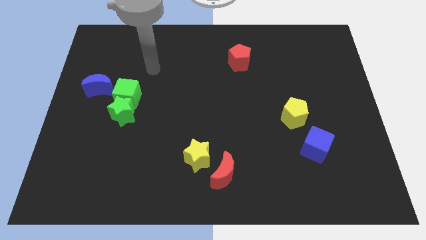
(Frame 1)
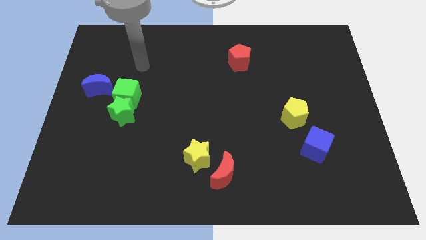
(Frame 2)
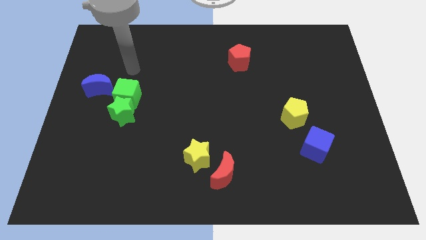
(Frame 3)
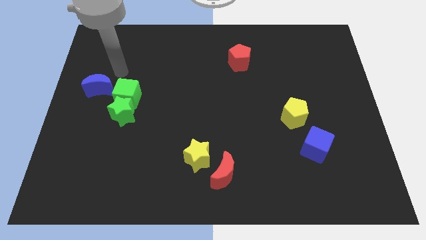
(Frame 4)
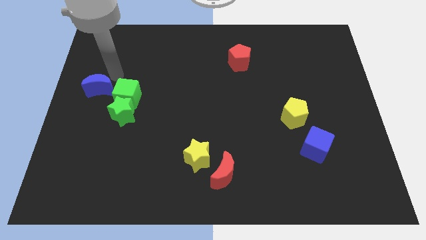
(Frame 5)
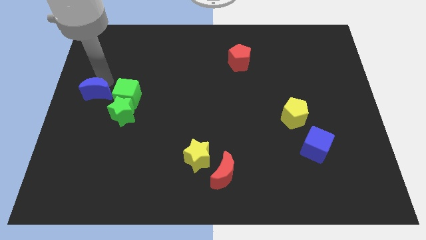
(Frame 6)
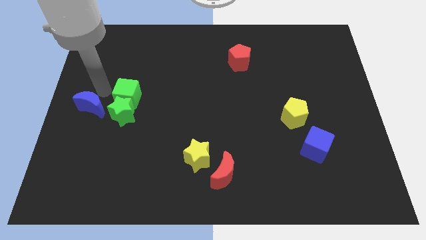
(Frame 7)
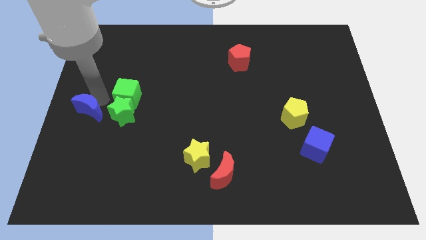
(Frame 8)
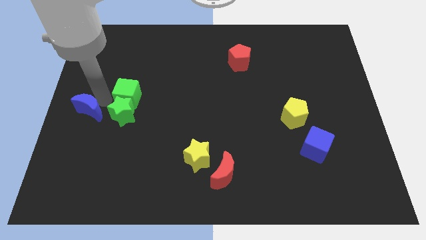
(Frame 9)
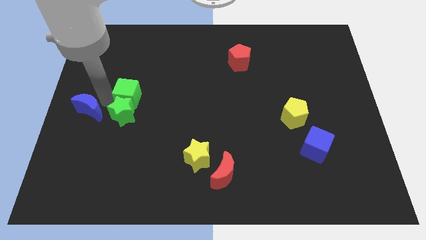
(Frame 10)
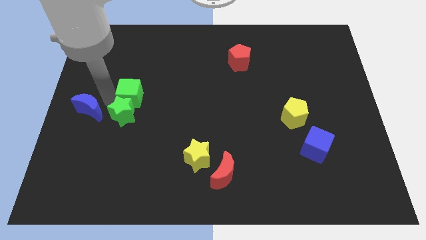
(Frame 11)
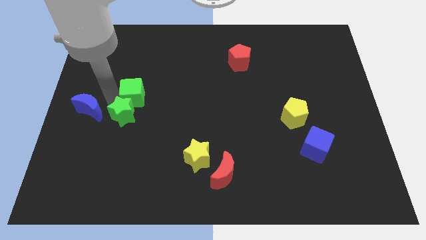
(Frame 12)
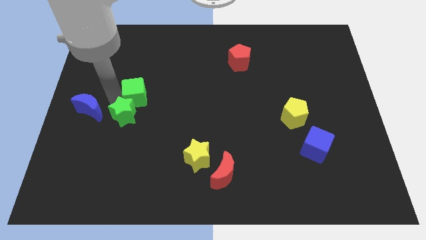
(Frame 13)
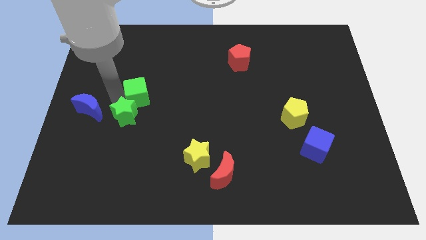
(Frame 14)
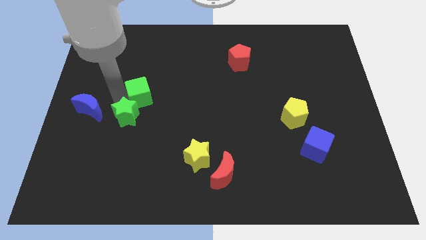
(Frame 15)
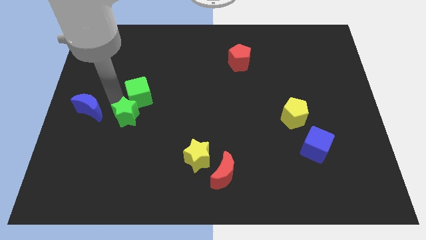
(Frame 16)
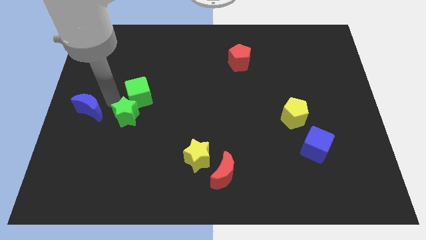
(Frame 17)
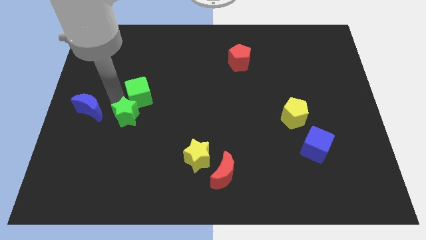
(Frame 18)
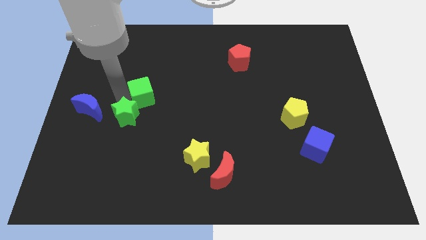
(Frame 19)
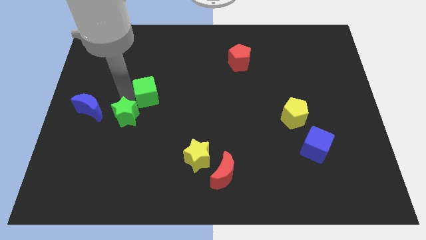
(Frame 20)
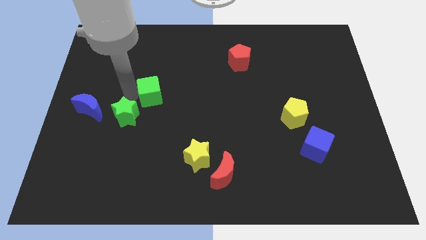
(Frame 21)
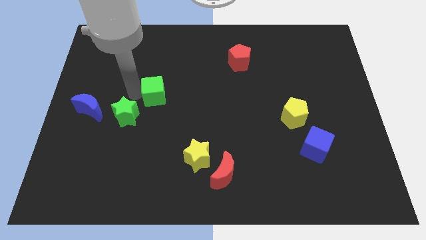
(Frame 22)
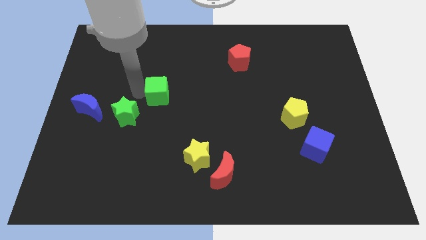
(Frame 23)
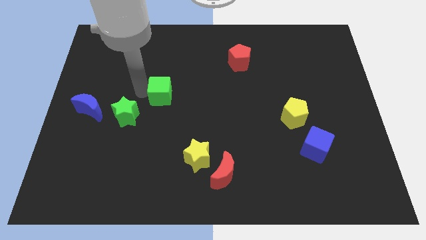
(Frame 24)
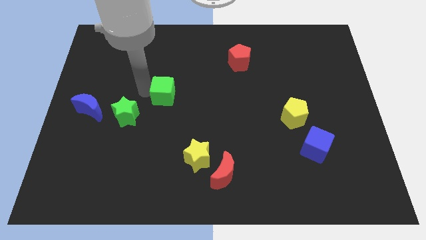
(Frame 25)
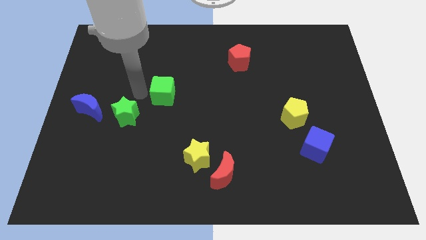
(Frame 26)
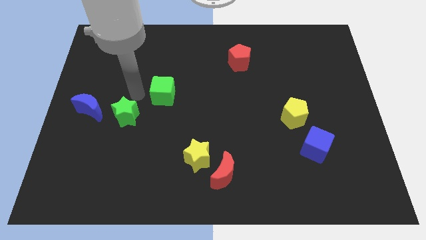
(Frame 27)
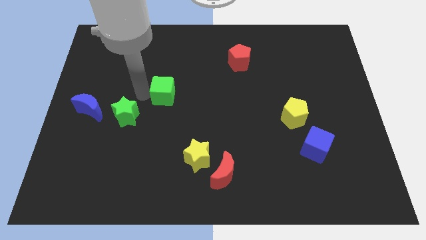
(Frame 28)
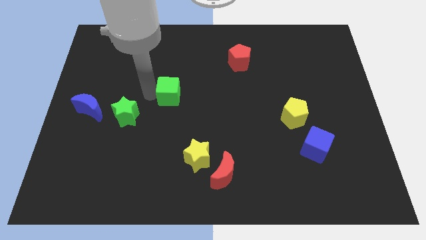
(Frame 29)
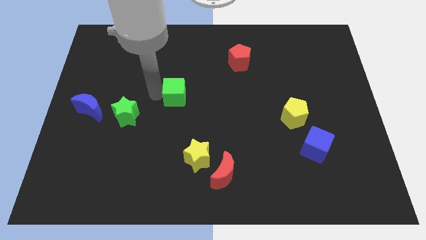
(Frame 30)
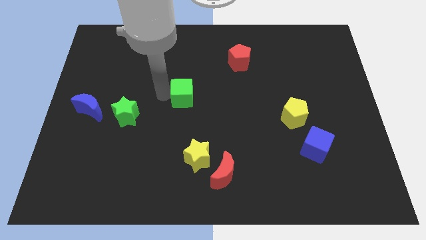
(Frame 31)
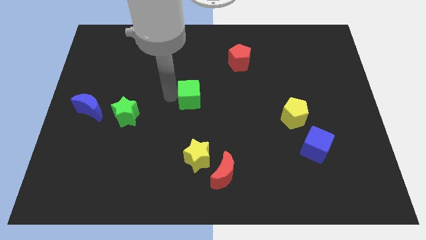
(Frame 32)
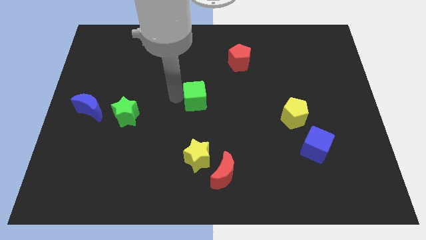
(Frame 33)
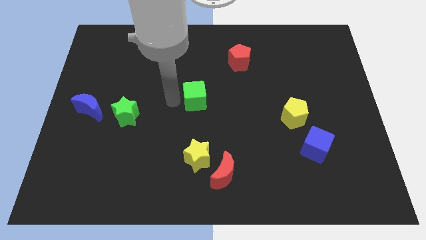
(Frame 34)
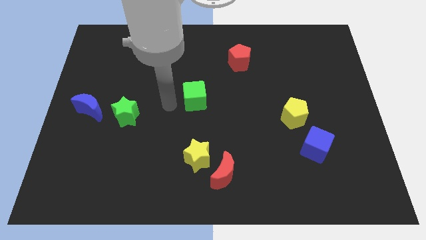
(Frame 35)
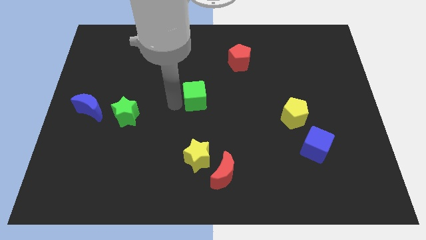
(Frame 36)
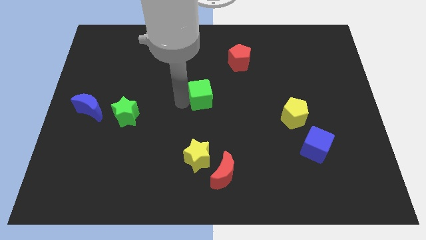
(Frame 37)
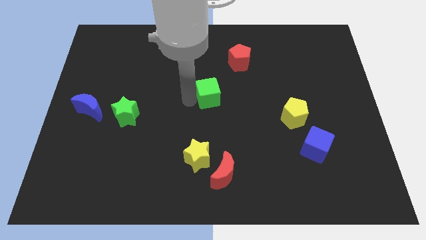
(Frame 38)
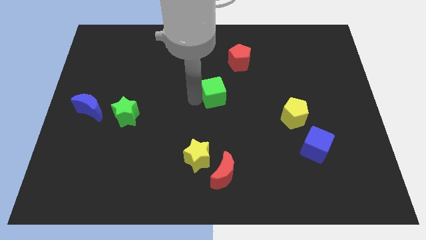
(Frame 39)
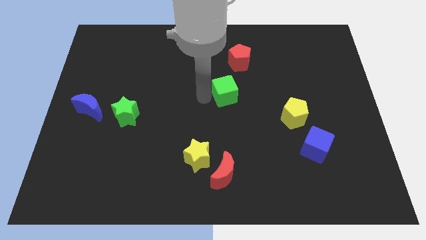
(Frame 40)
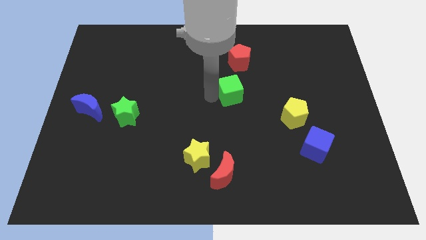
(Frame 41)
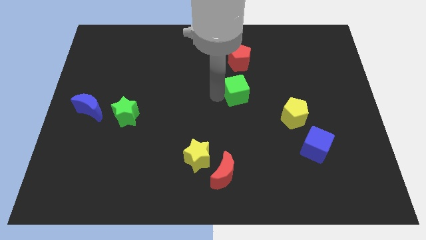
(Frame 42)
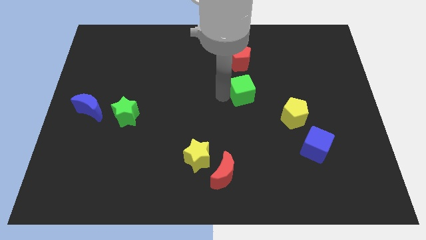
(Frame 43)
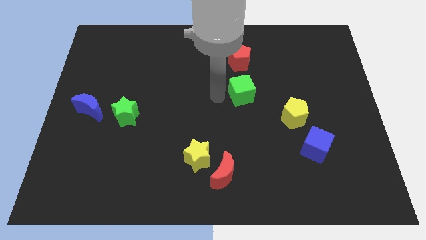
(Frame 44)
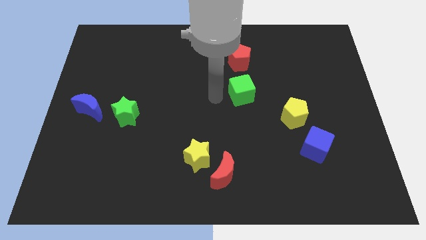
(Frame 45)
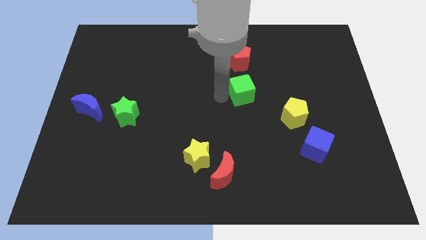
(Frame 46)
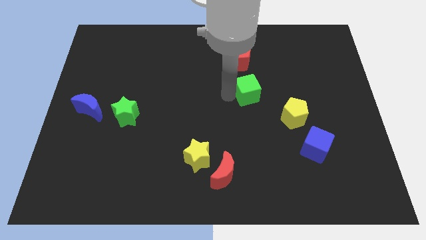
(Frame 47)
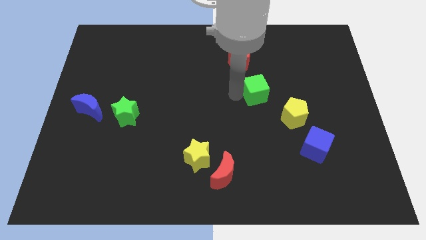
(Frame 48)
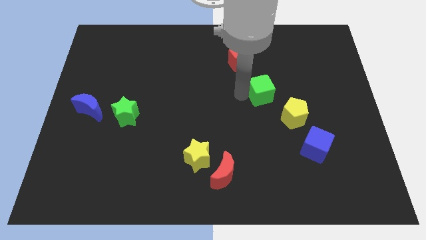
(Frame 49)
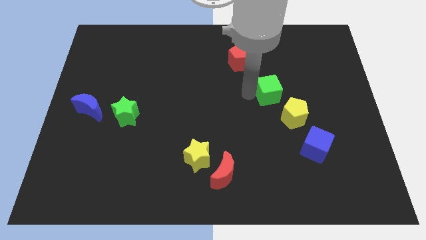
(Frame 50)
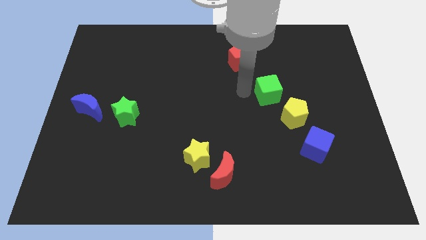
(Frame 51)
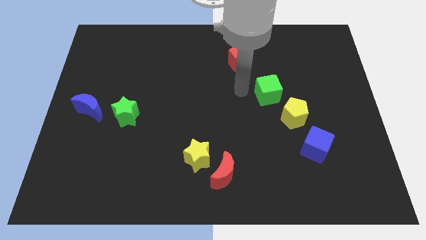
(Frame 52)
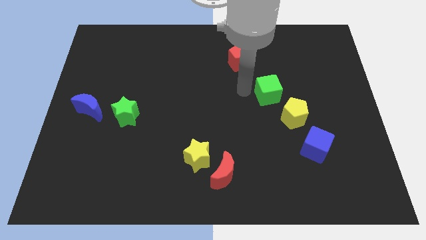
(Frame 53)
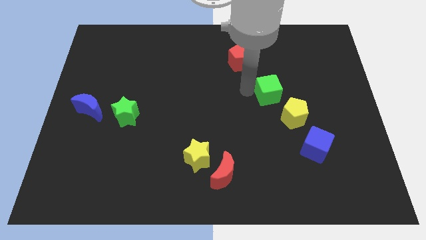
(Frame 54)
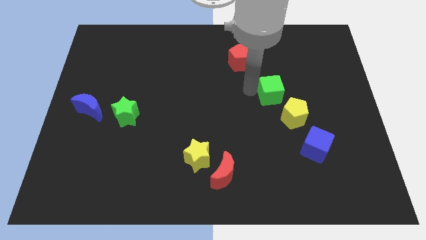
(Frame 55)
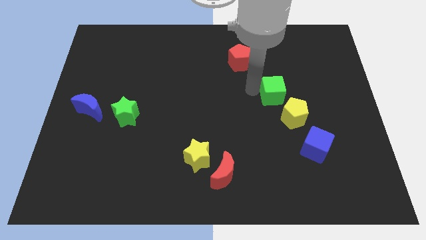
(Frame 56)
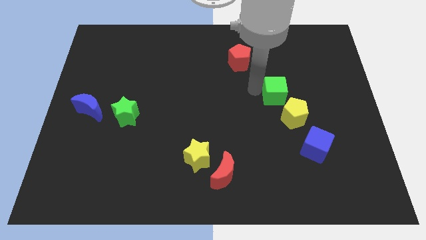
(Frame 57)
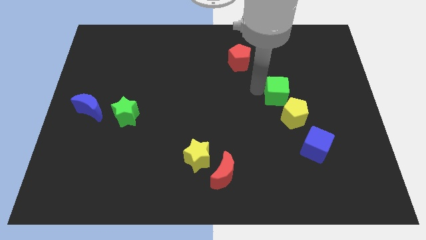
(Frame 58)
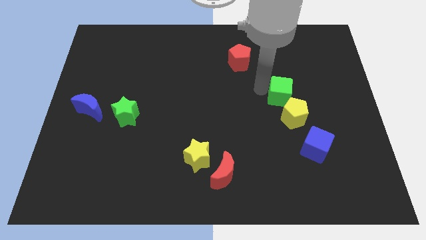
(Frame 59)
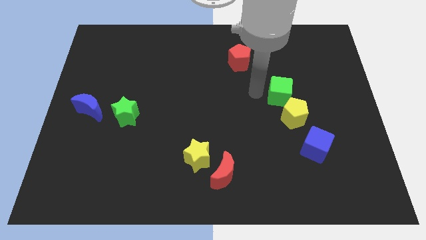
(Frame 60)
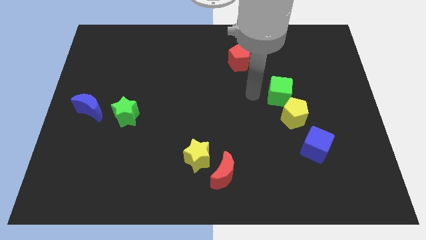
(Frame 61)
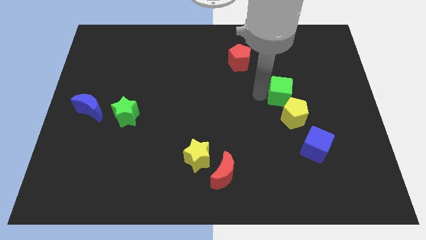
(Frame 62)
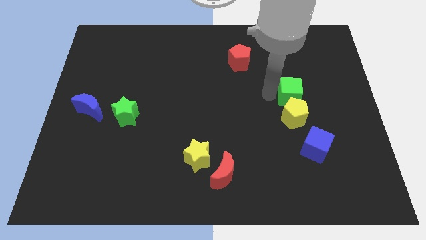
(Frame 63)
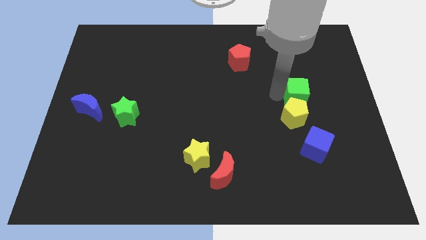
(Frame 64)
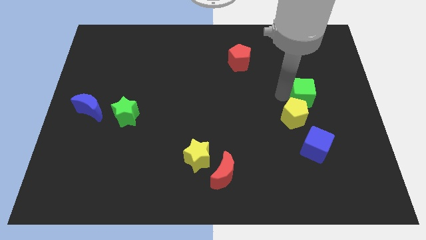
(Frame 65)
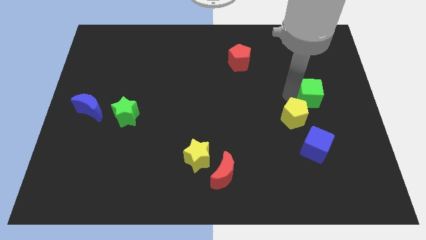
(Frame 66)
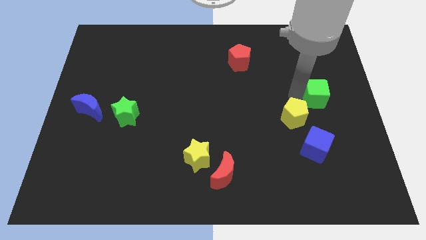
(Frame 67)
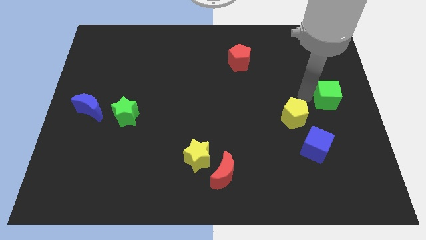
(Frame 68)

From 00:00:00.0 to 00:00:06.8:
push the green cube to the right side of the board
